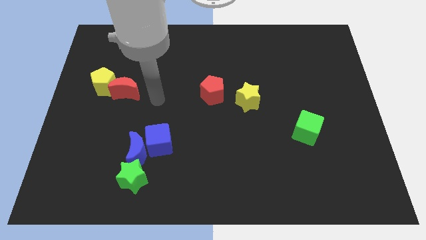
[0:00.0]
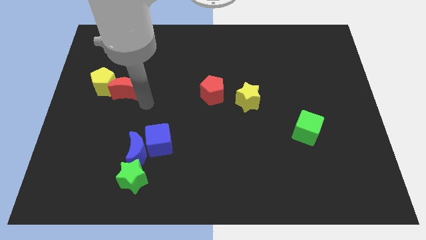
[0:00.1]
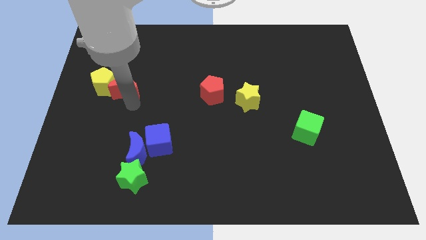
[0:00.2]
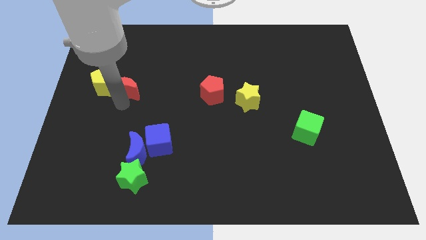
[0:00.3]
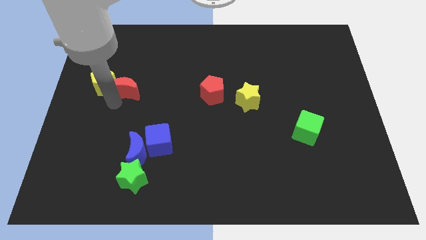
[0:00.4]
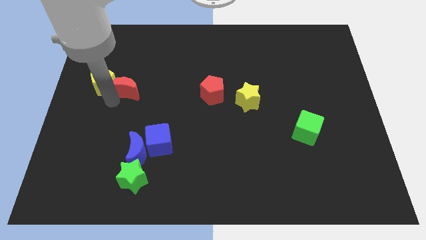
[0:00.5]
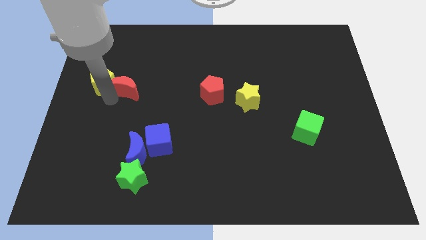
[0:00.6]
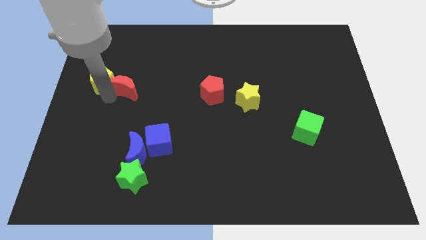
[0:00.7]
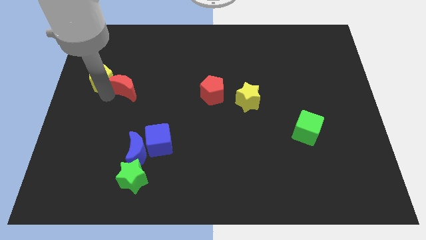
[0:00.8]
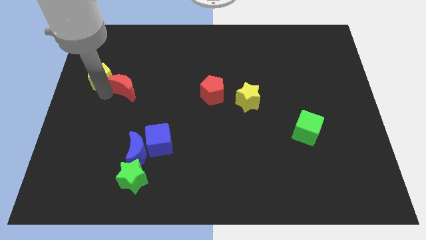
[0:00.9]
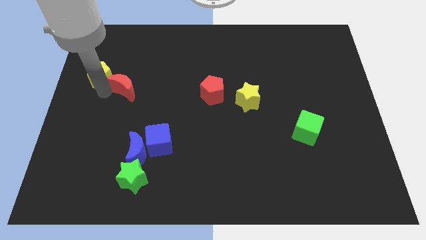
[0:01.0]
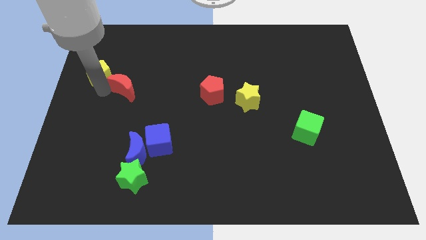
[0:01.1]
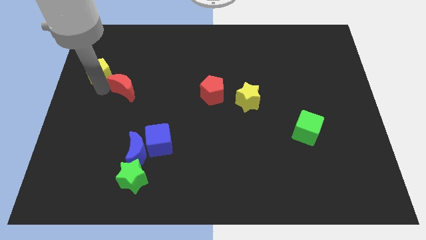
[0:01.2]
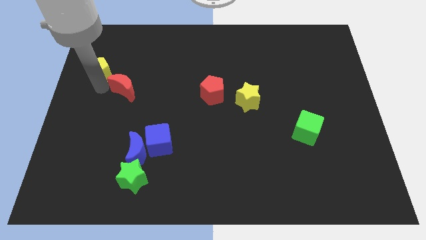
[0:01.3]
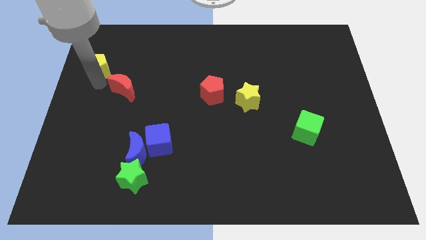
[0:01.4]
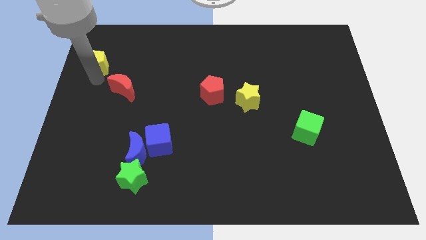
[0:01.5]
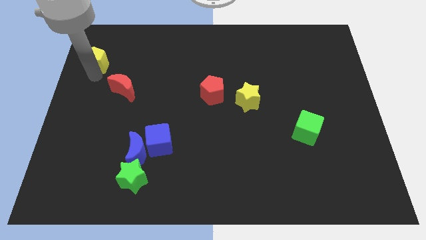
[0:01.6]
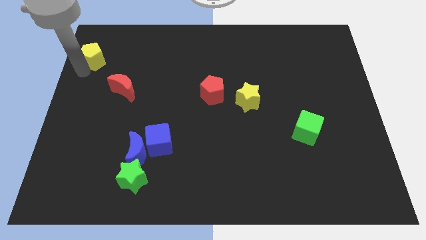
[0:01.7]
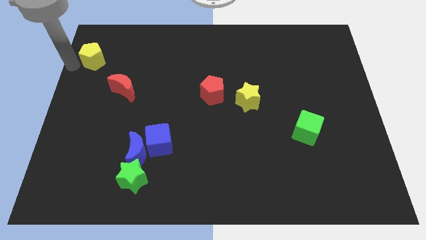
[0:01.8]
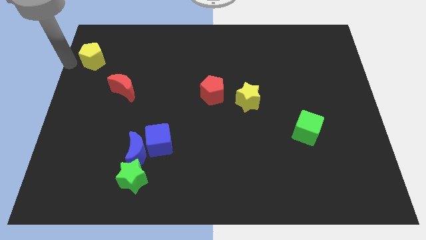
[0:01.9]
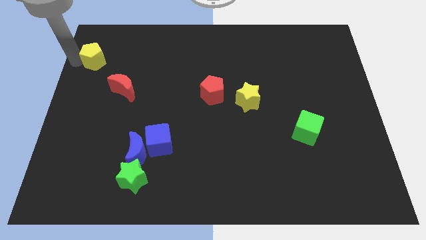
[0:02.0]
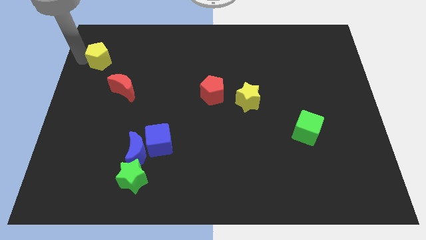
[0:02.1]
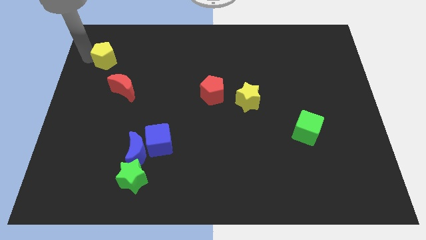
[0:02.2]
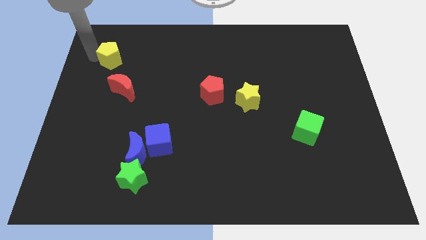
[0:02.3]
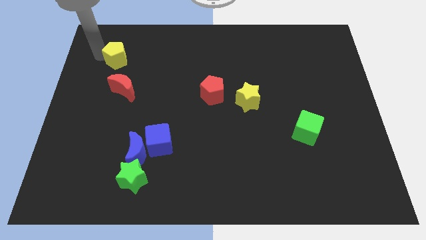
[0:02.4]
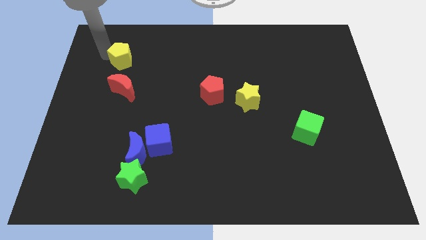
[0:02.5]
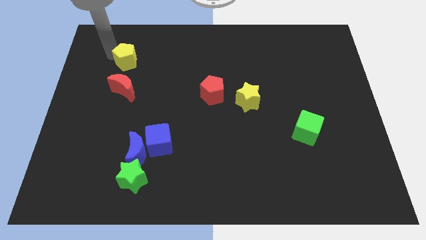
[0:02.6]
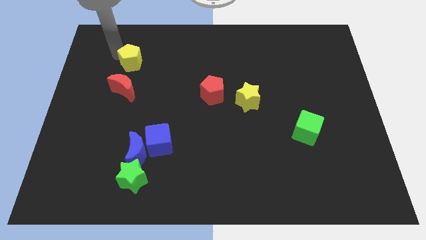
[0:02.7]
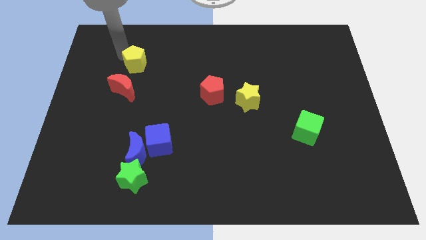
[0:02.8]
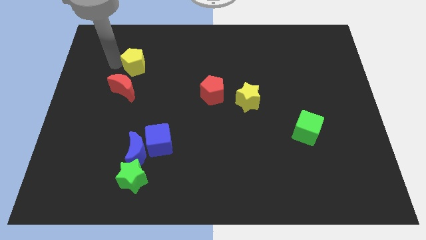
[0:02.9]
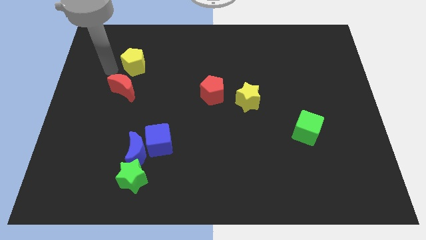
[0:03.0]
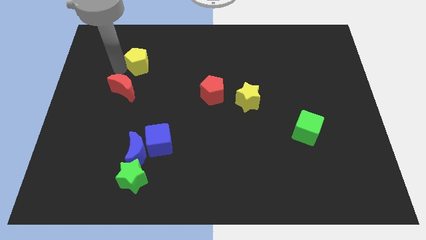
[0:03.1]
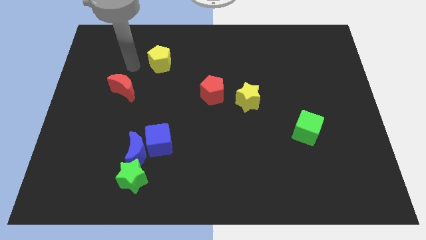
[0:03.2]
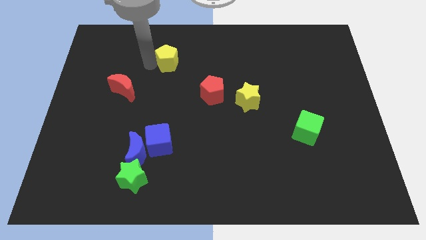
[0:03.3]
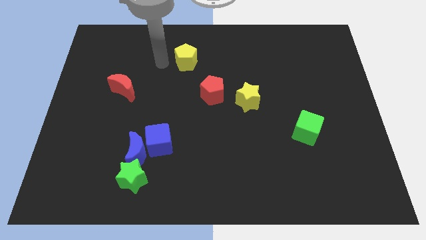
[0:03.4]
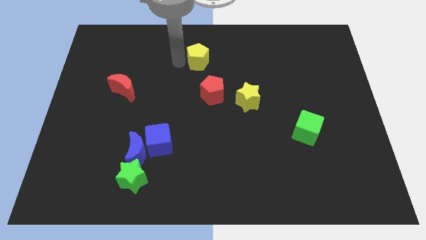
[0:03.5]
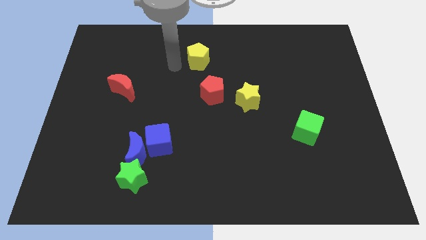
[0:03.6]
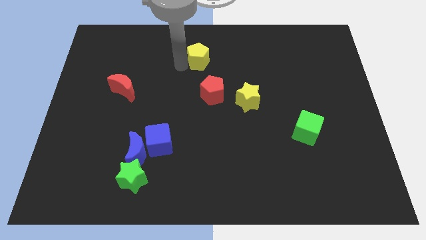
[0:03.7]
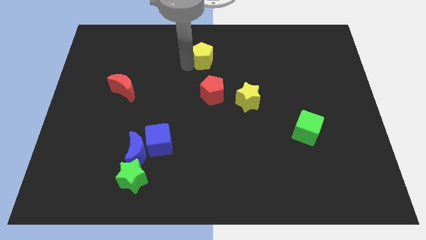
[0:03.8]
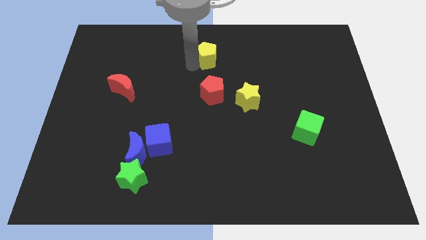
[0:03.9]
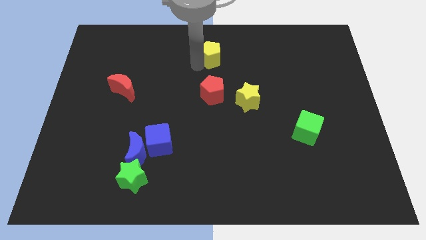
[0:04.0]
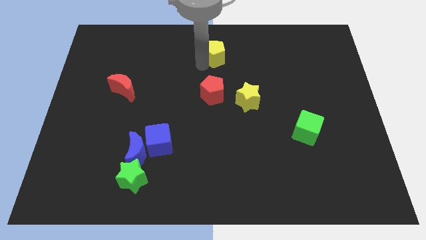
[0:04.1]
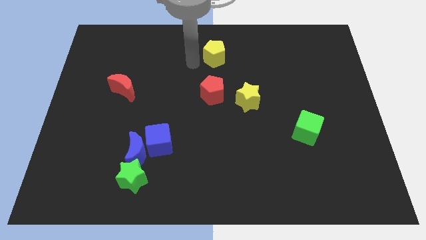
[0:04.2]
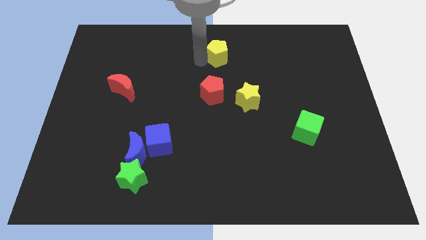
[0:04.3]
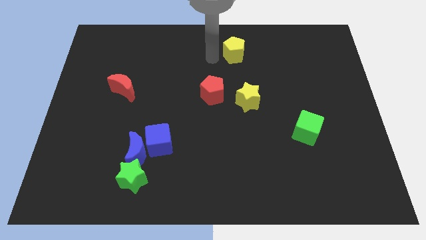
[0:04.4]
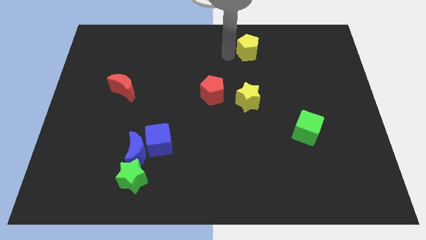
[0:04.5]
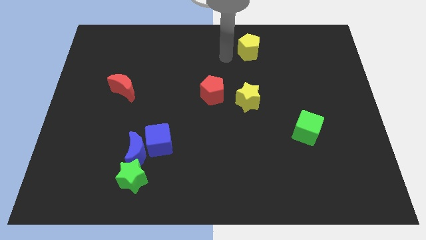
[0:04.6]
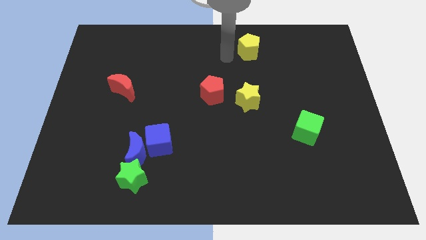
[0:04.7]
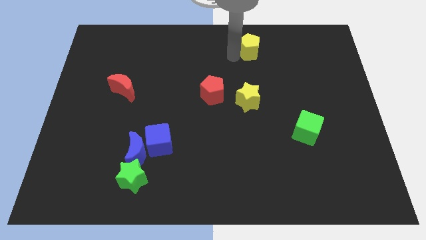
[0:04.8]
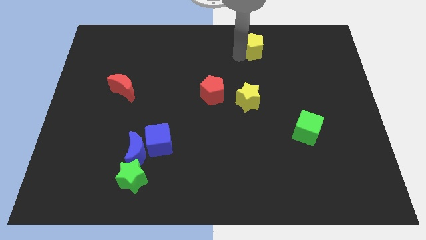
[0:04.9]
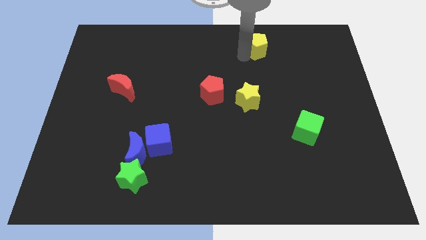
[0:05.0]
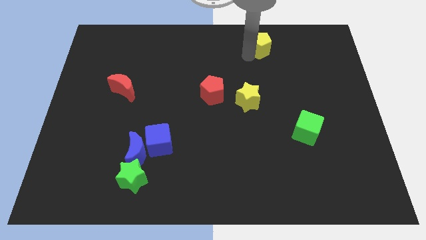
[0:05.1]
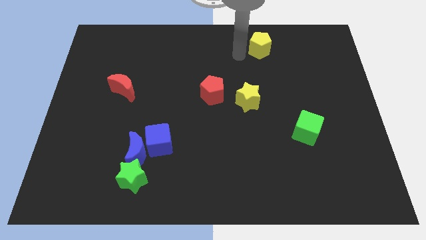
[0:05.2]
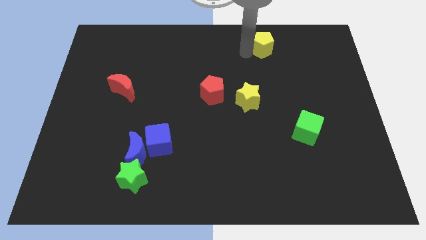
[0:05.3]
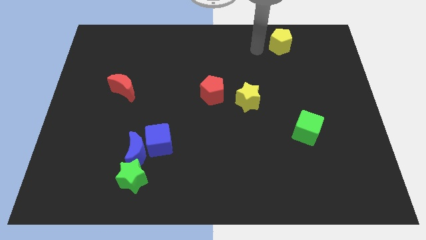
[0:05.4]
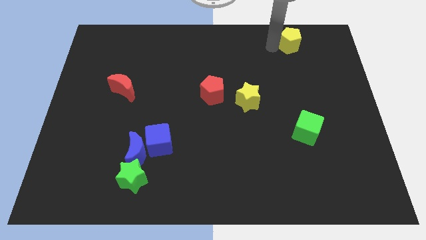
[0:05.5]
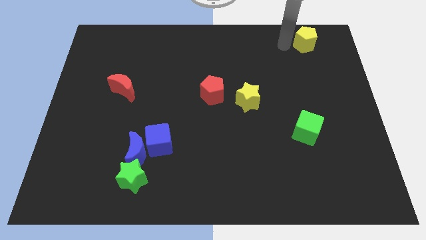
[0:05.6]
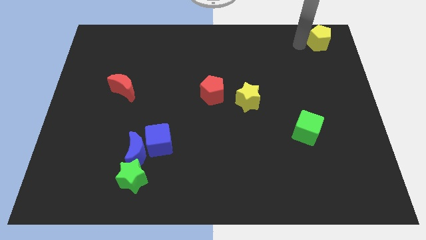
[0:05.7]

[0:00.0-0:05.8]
move the yellow pentagon to the upper right corner
